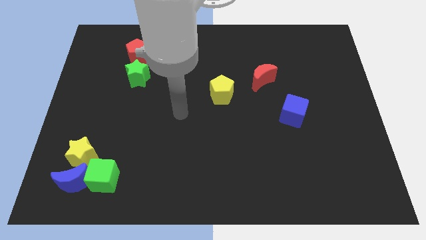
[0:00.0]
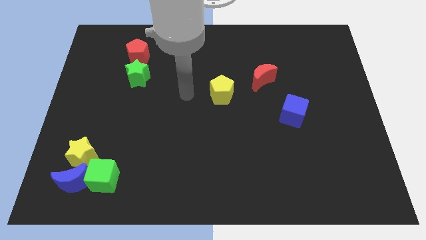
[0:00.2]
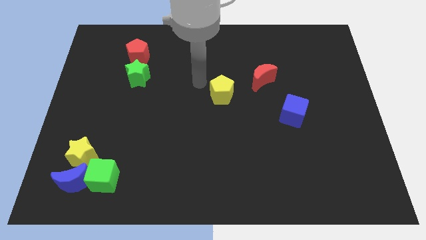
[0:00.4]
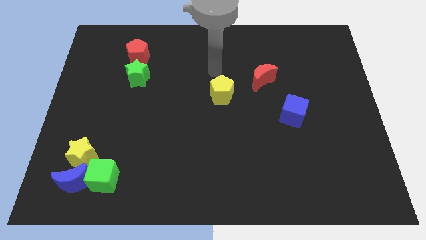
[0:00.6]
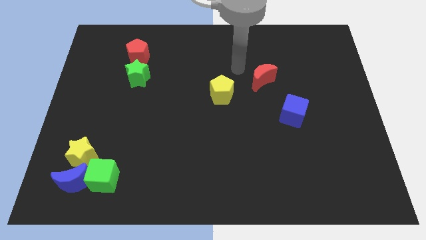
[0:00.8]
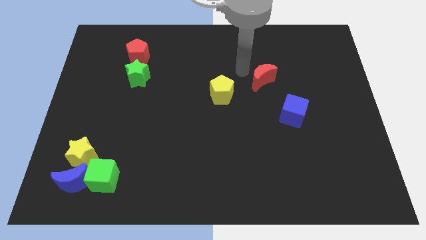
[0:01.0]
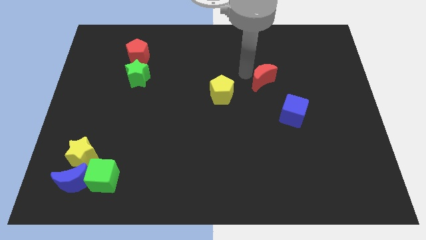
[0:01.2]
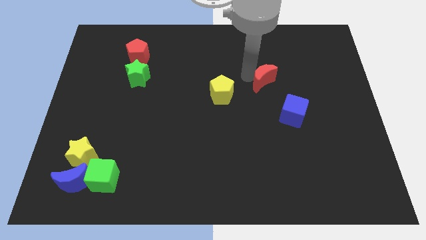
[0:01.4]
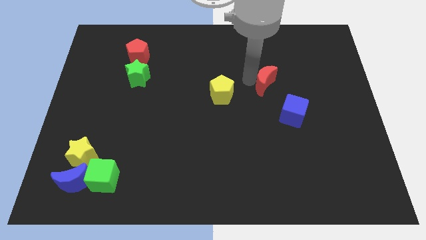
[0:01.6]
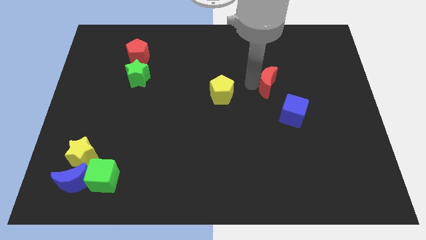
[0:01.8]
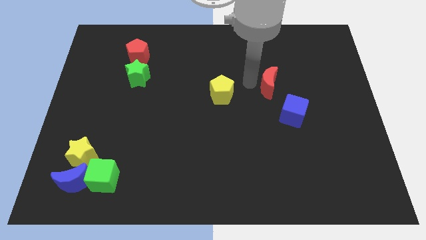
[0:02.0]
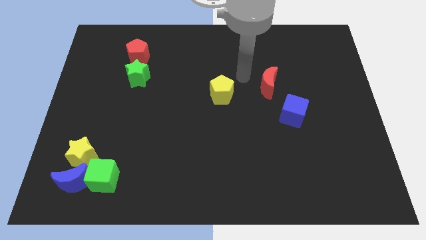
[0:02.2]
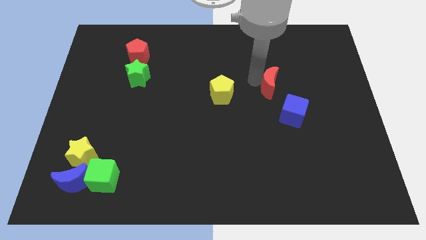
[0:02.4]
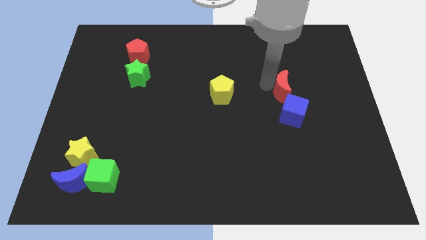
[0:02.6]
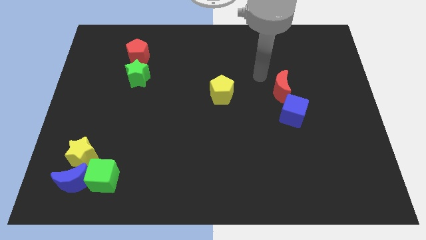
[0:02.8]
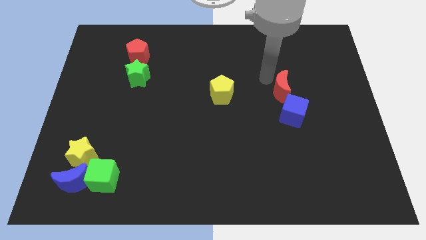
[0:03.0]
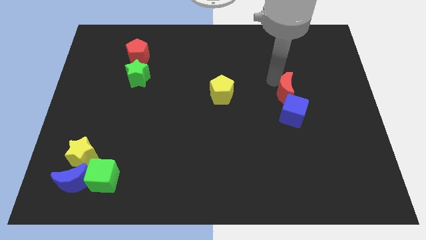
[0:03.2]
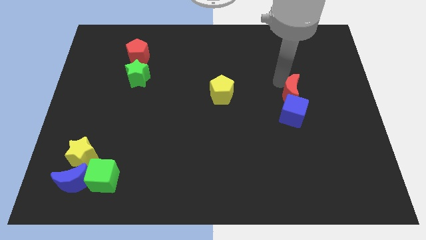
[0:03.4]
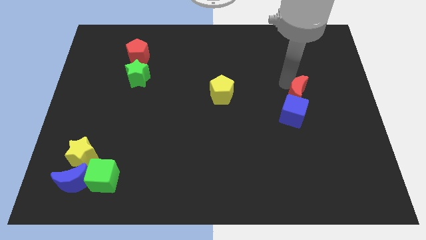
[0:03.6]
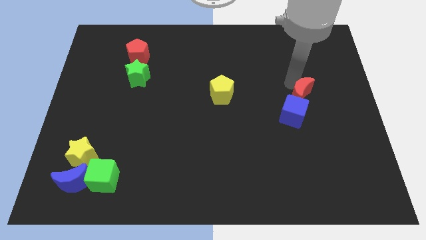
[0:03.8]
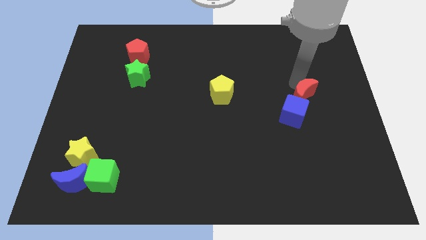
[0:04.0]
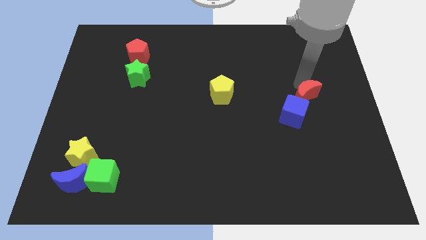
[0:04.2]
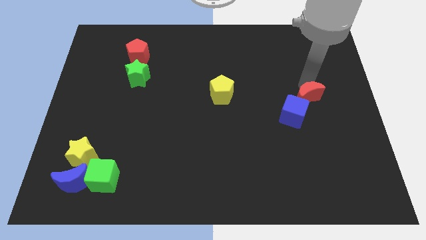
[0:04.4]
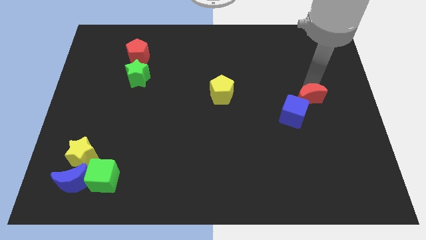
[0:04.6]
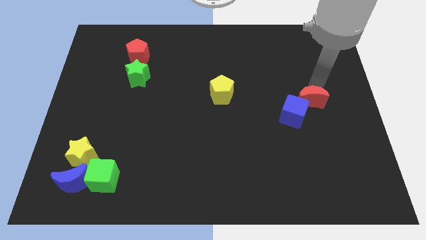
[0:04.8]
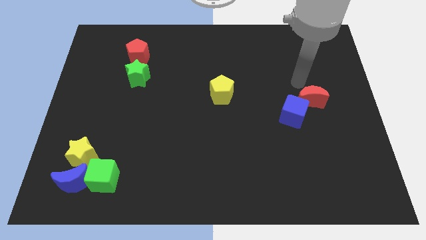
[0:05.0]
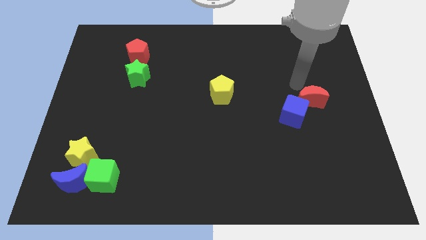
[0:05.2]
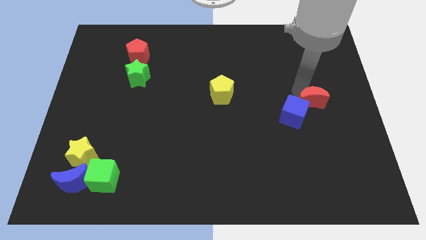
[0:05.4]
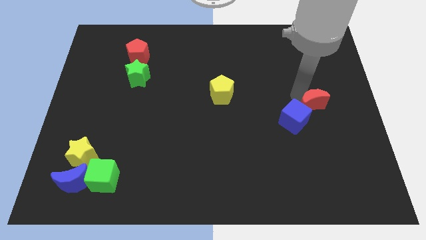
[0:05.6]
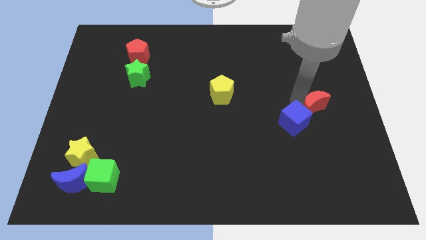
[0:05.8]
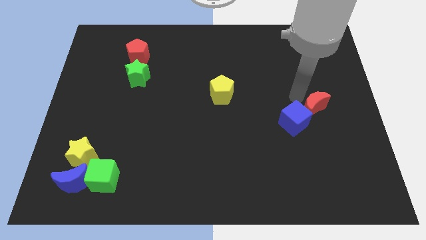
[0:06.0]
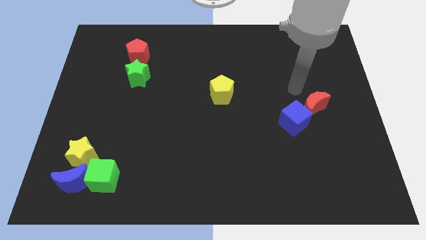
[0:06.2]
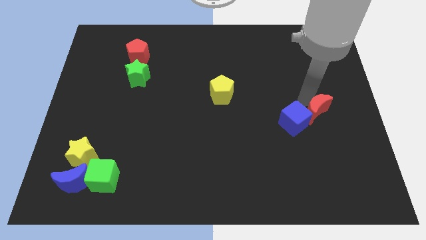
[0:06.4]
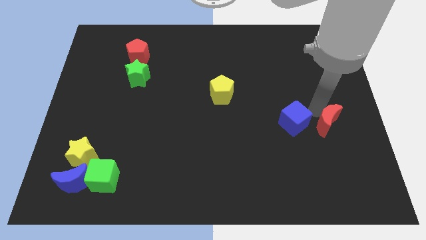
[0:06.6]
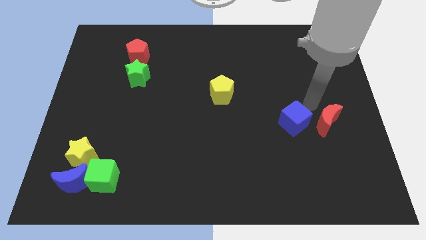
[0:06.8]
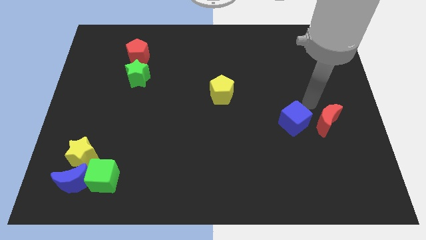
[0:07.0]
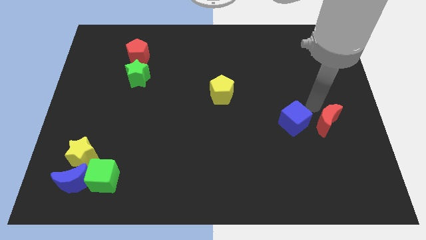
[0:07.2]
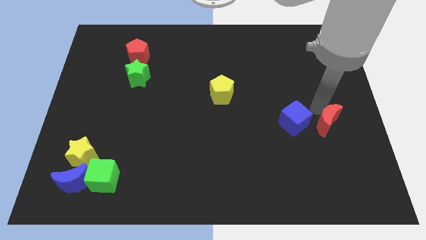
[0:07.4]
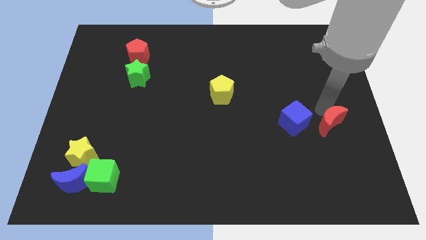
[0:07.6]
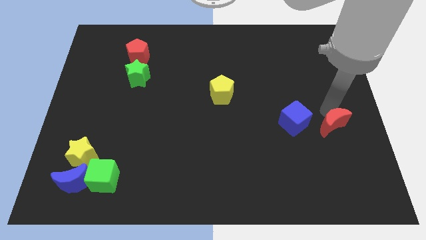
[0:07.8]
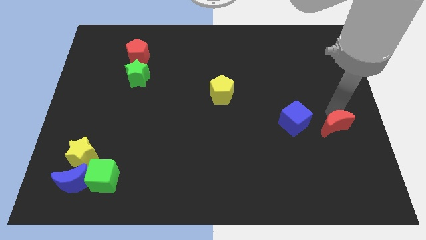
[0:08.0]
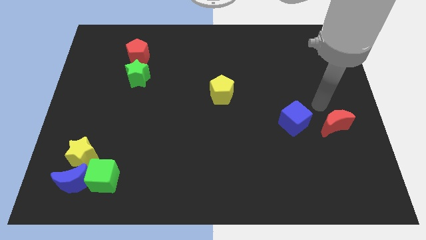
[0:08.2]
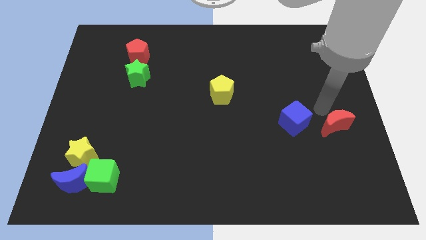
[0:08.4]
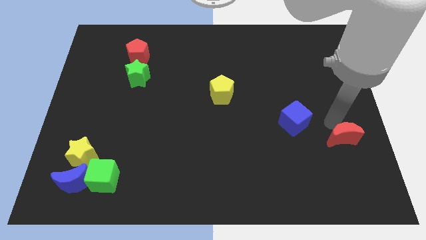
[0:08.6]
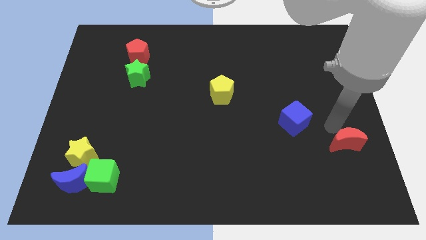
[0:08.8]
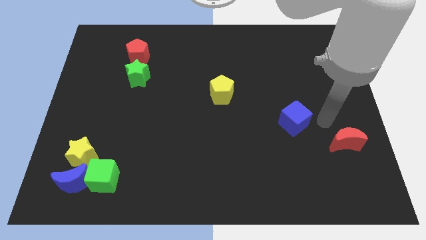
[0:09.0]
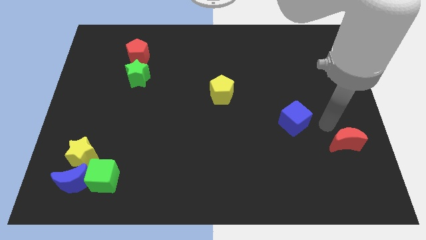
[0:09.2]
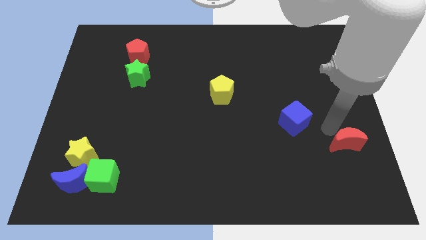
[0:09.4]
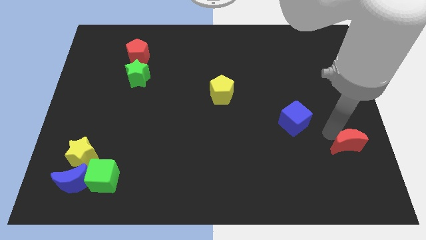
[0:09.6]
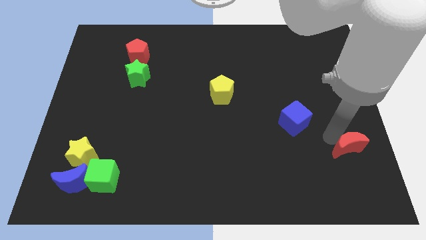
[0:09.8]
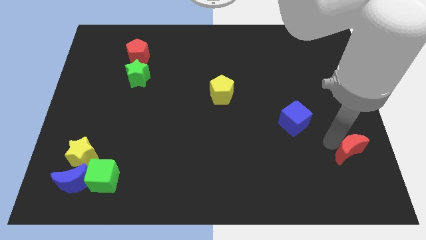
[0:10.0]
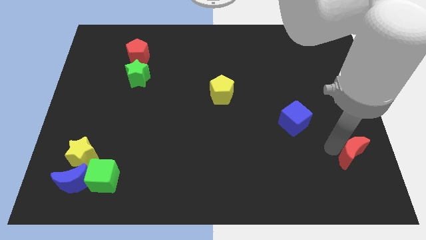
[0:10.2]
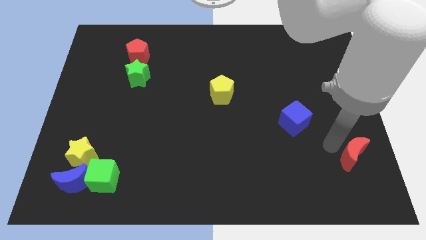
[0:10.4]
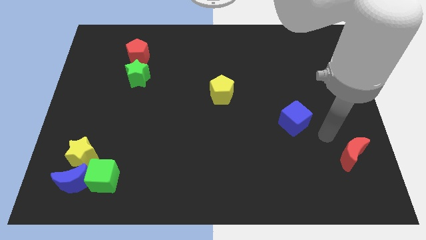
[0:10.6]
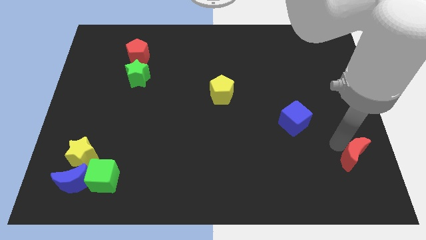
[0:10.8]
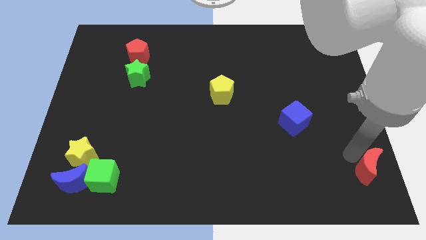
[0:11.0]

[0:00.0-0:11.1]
push the red moon to the bottom right corner

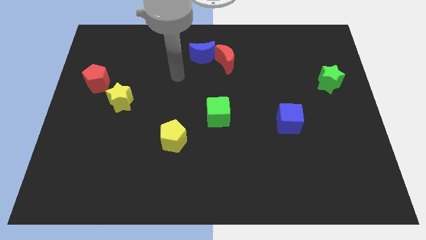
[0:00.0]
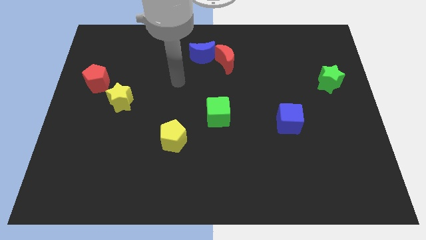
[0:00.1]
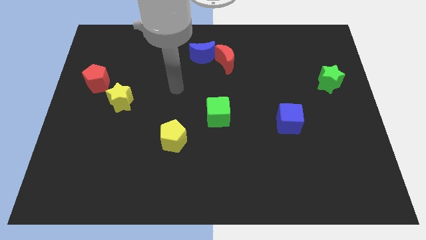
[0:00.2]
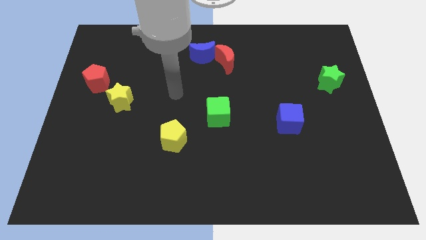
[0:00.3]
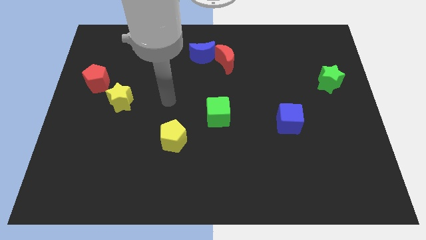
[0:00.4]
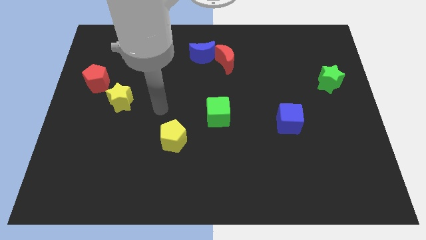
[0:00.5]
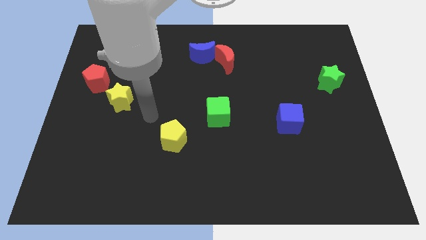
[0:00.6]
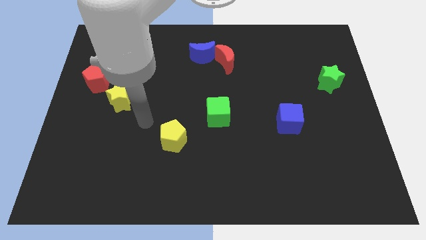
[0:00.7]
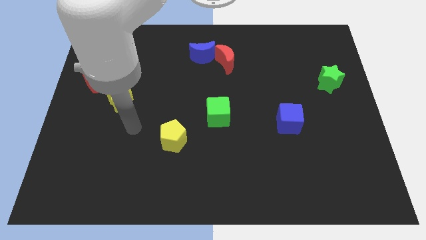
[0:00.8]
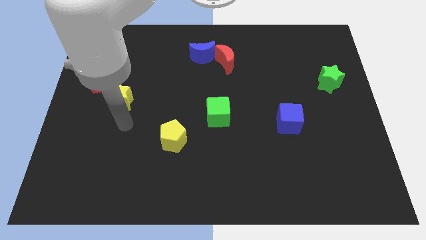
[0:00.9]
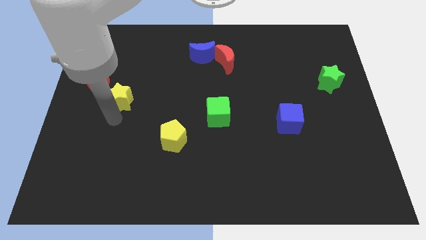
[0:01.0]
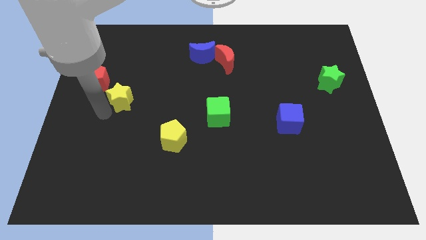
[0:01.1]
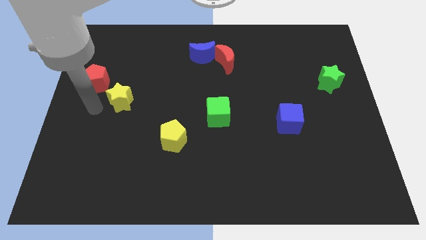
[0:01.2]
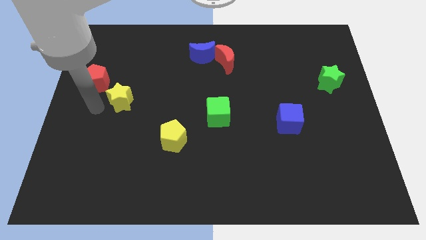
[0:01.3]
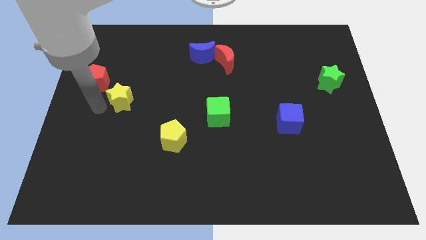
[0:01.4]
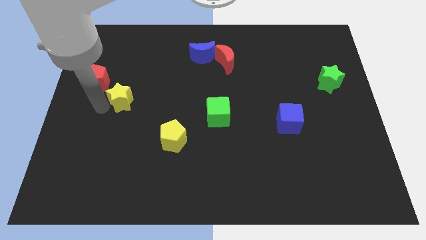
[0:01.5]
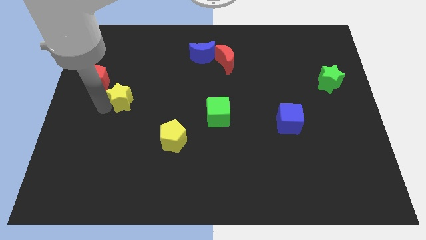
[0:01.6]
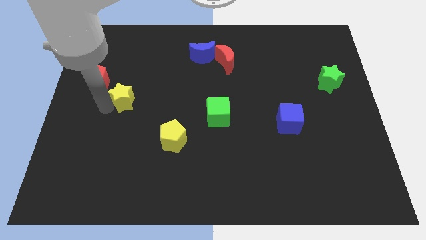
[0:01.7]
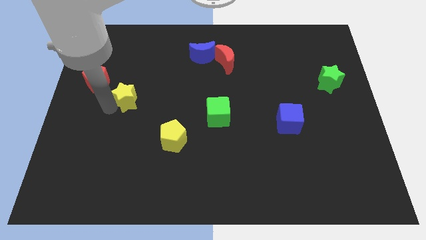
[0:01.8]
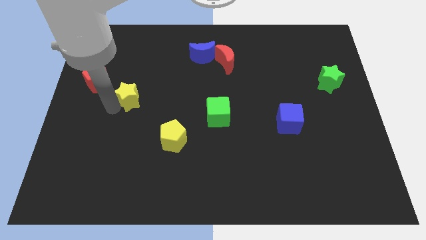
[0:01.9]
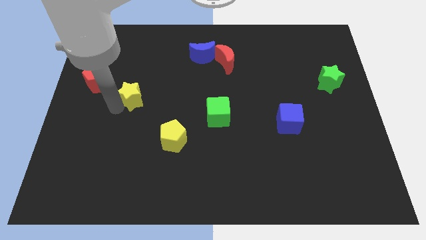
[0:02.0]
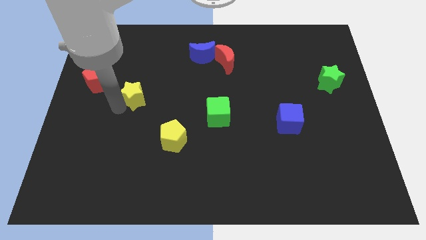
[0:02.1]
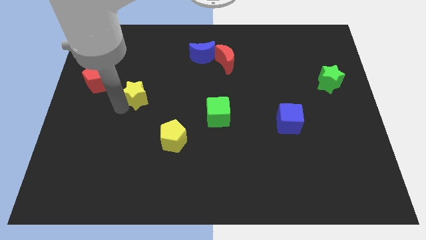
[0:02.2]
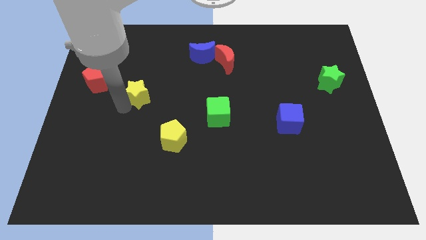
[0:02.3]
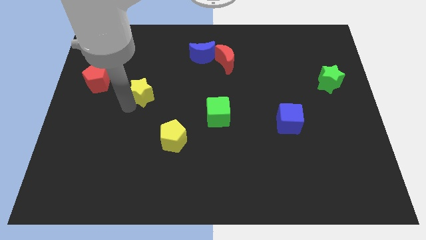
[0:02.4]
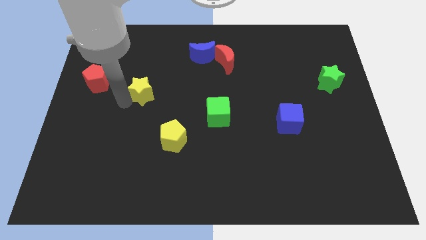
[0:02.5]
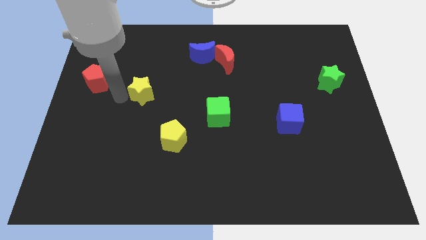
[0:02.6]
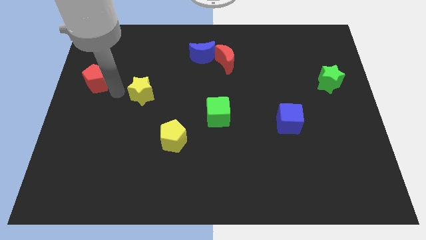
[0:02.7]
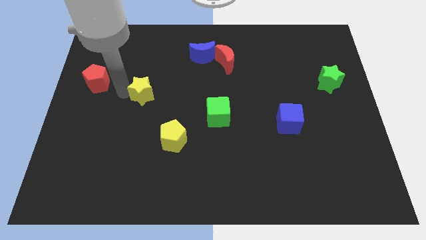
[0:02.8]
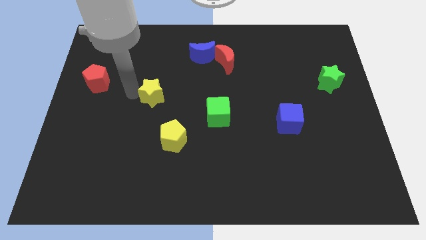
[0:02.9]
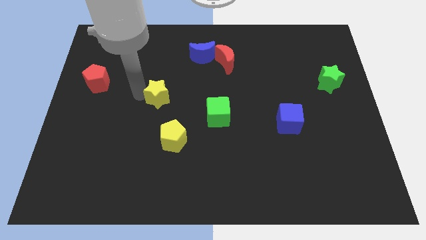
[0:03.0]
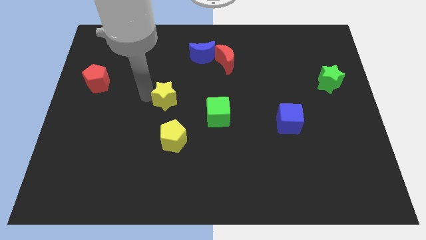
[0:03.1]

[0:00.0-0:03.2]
slide the yellow star to the center of the board
